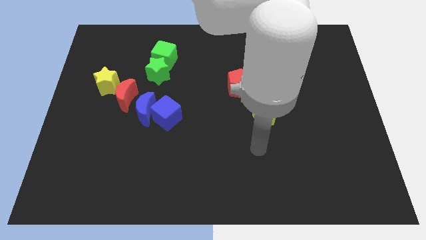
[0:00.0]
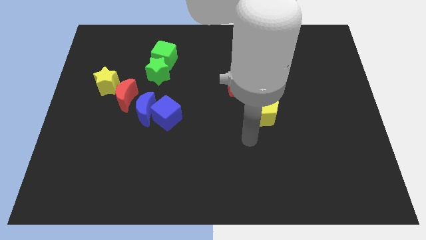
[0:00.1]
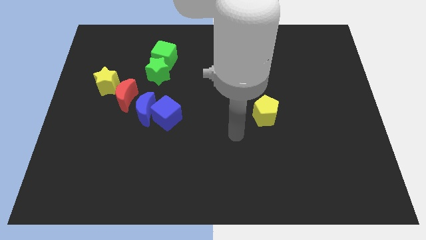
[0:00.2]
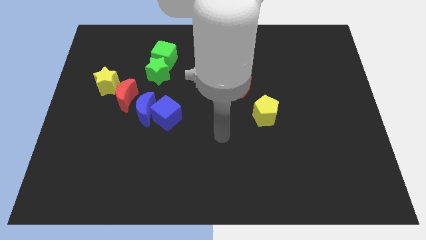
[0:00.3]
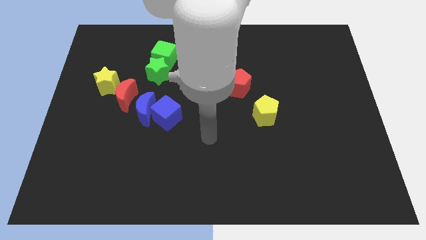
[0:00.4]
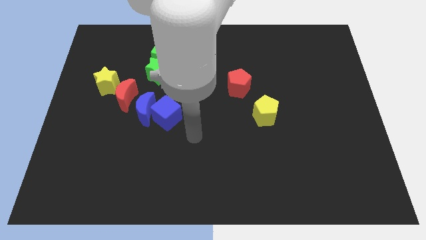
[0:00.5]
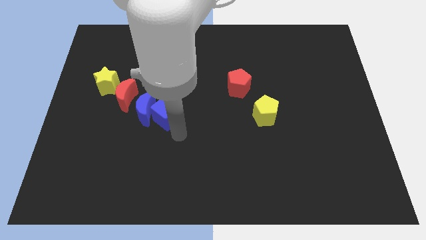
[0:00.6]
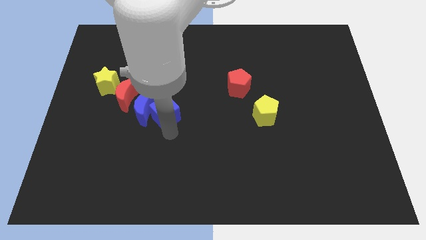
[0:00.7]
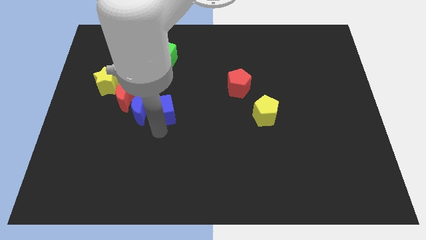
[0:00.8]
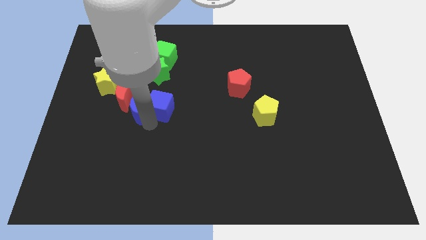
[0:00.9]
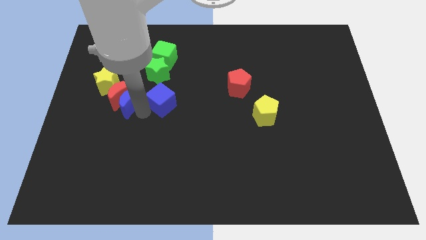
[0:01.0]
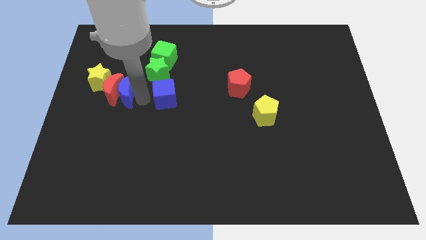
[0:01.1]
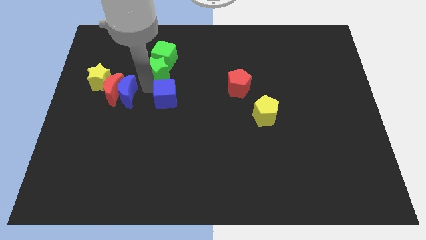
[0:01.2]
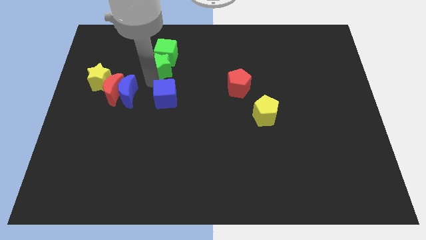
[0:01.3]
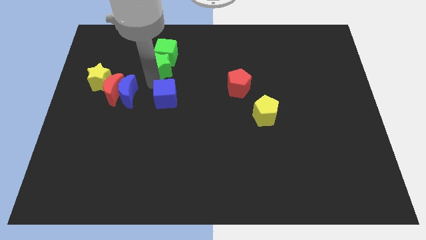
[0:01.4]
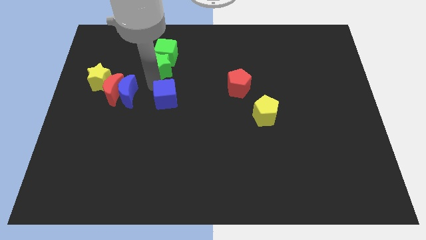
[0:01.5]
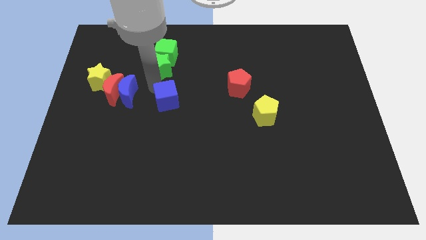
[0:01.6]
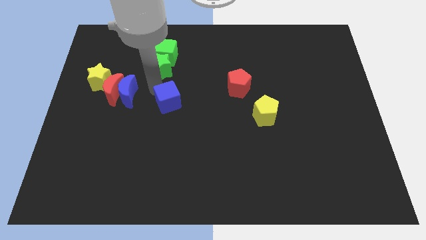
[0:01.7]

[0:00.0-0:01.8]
pull the blue cube apart from the blue moon

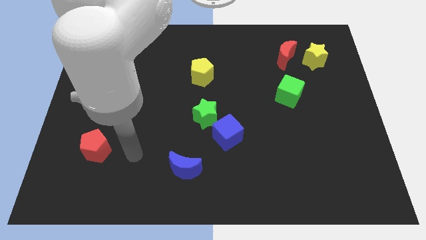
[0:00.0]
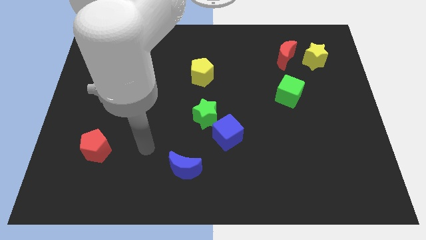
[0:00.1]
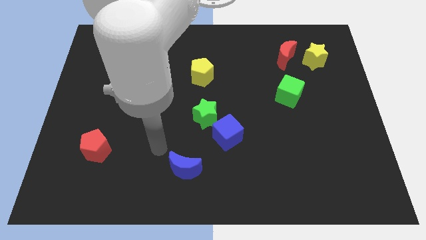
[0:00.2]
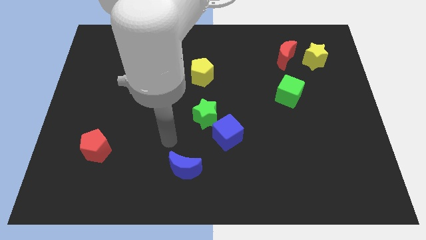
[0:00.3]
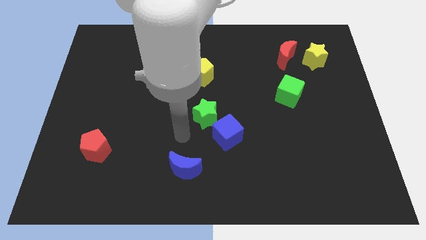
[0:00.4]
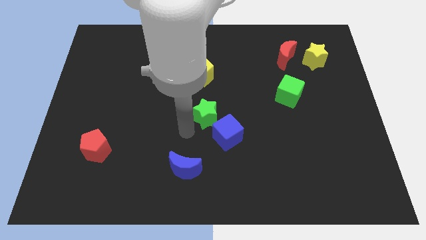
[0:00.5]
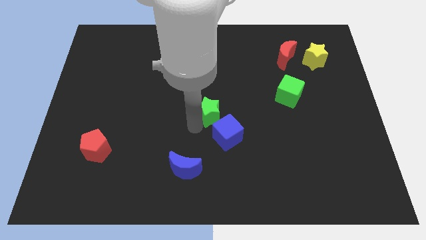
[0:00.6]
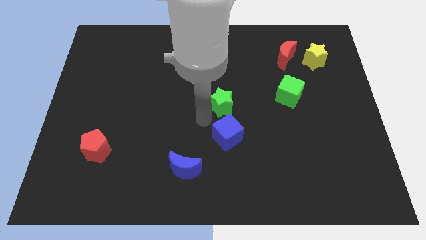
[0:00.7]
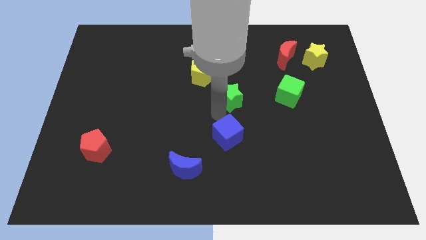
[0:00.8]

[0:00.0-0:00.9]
pull the blue cube apart from the green star

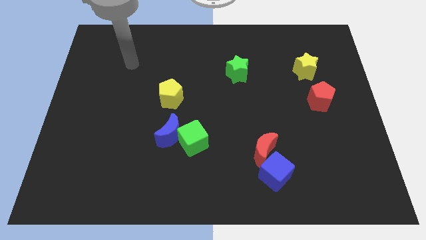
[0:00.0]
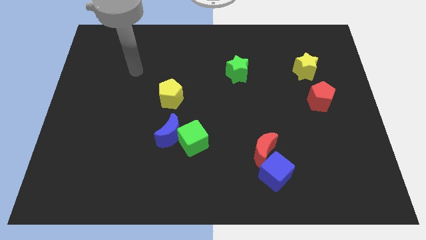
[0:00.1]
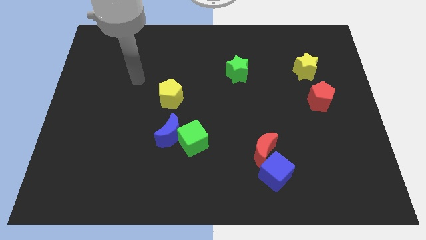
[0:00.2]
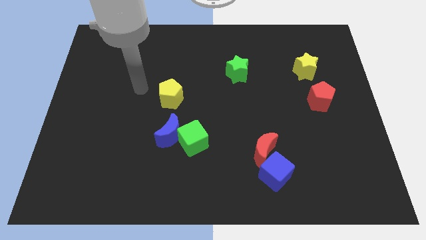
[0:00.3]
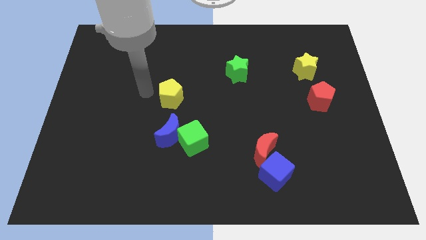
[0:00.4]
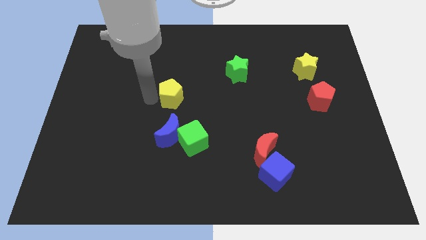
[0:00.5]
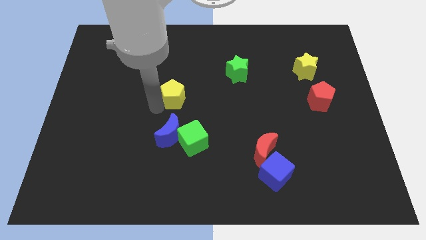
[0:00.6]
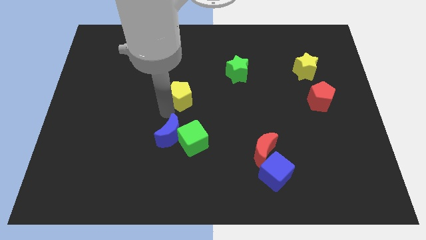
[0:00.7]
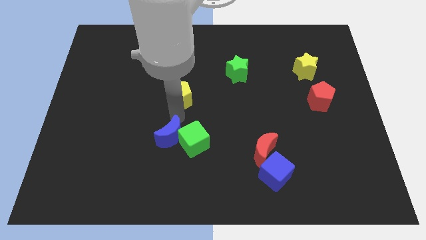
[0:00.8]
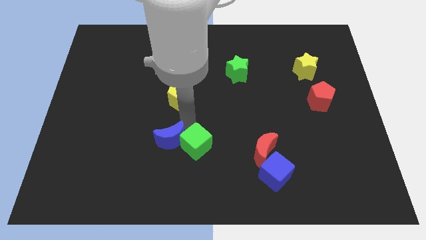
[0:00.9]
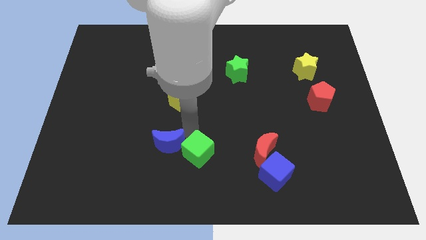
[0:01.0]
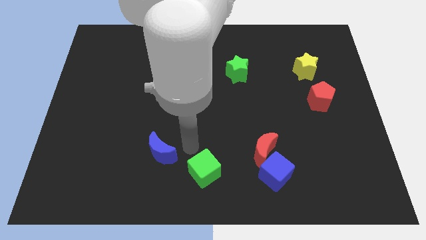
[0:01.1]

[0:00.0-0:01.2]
pull the blue moon apart from the green cube

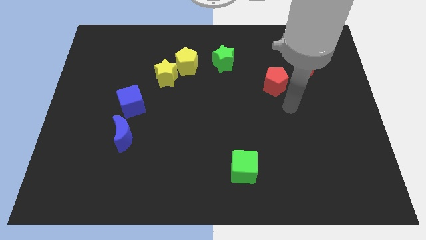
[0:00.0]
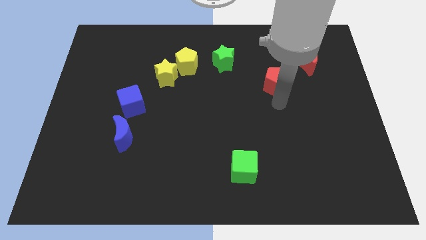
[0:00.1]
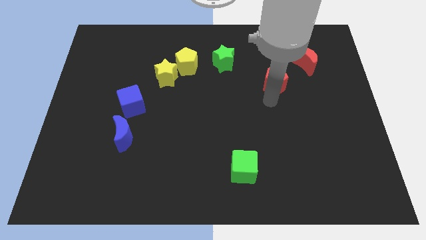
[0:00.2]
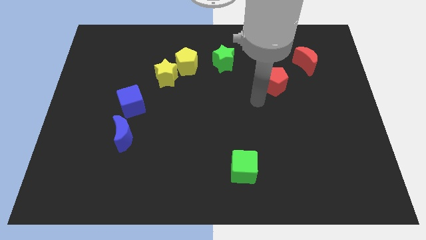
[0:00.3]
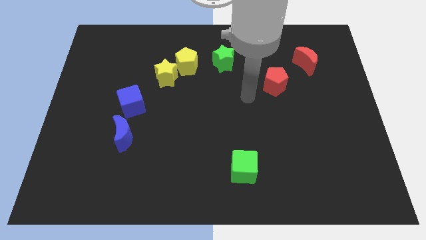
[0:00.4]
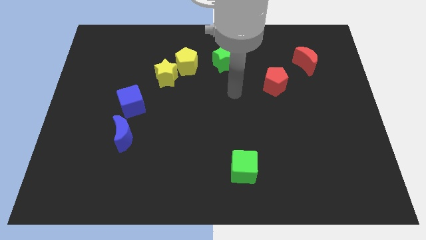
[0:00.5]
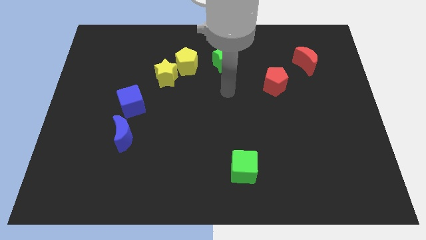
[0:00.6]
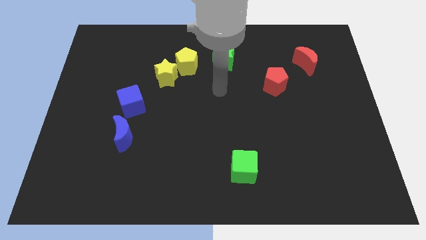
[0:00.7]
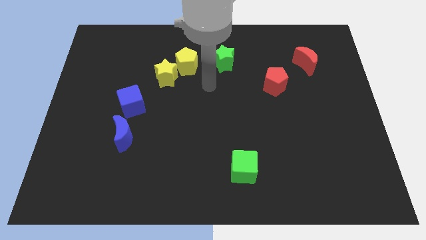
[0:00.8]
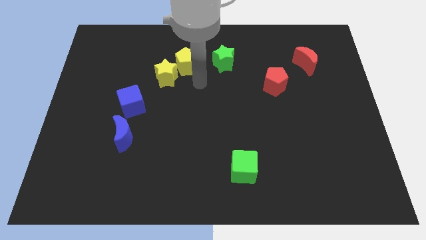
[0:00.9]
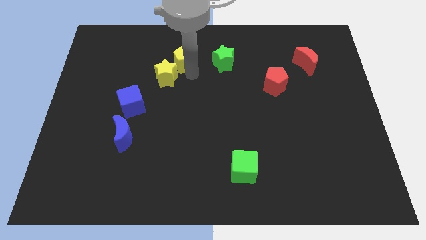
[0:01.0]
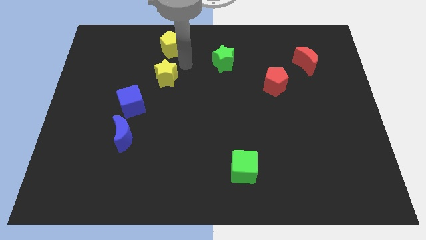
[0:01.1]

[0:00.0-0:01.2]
pull the yellow star apart from the yellow pentagon

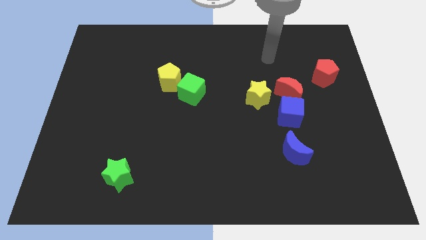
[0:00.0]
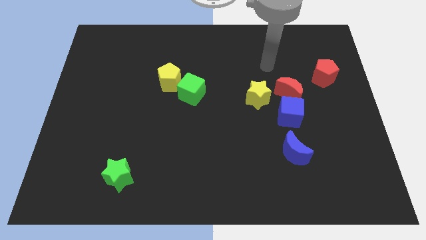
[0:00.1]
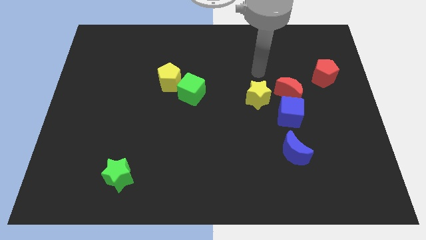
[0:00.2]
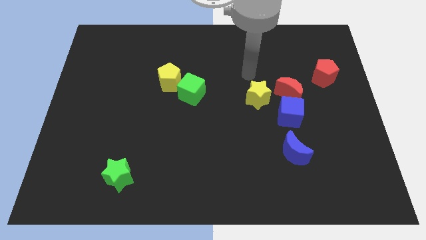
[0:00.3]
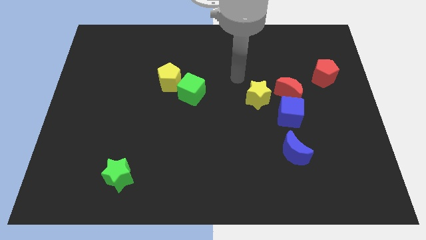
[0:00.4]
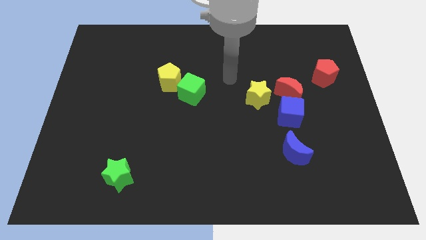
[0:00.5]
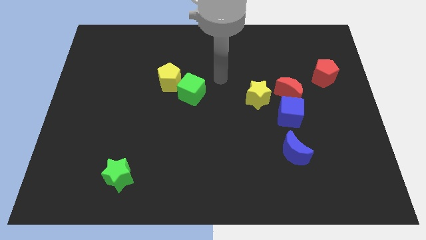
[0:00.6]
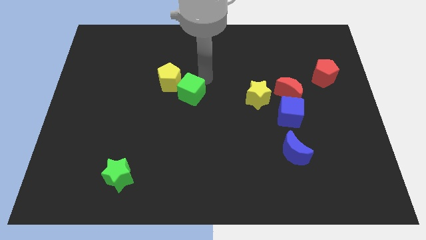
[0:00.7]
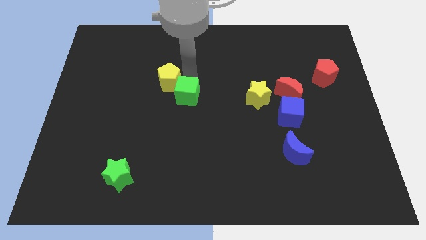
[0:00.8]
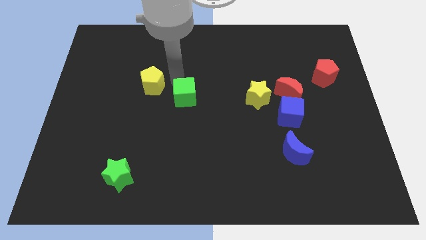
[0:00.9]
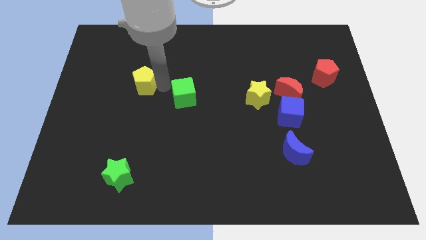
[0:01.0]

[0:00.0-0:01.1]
separate the green cube from the yellow pentagon

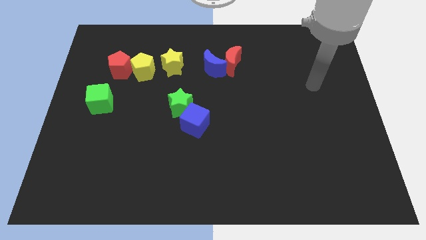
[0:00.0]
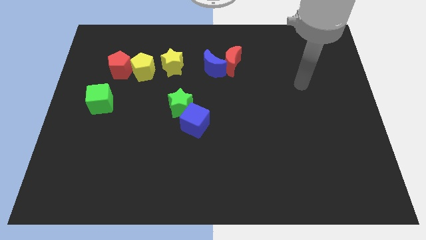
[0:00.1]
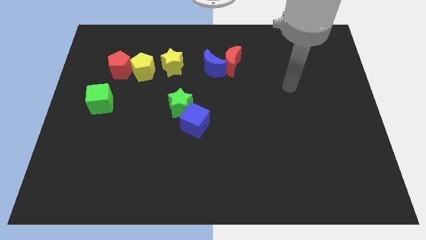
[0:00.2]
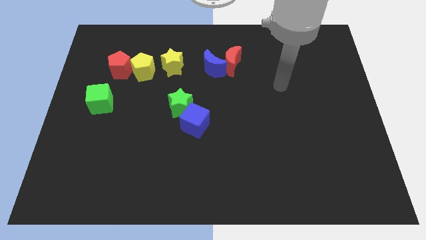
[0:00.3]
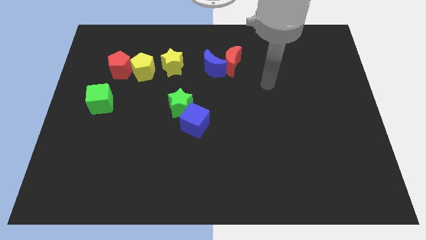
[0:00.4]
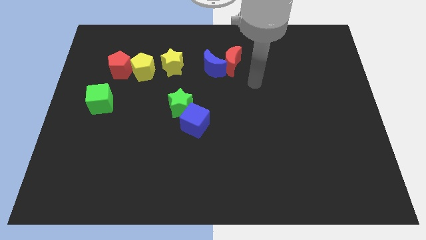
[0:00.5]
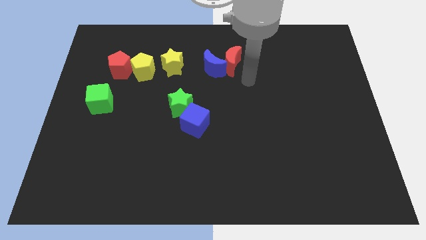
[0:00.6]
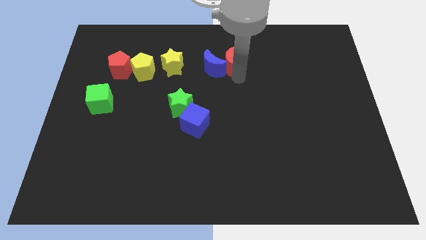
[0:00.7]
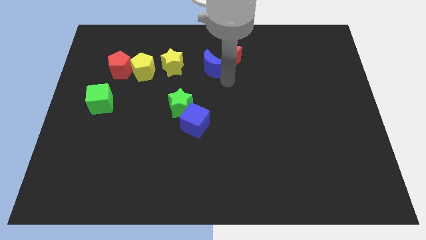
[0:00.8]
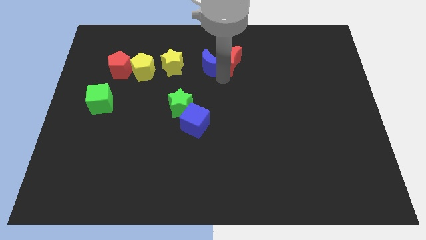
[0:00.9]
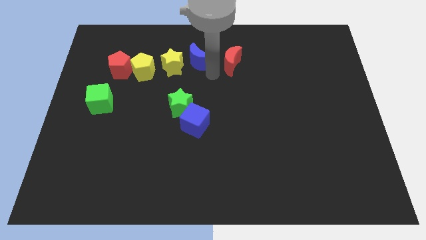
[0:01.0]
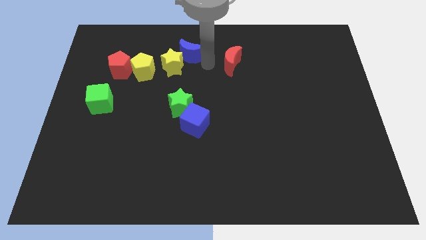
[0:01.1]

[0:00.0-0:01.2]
move the red moon away from the blue moon

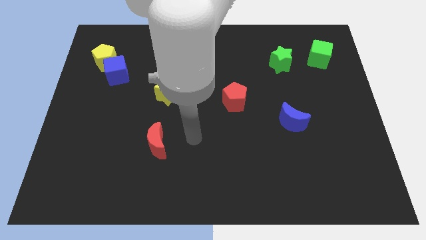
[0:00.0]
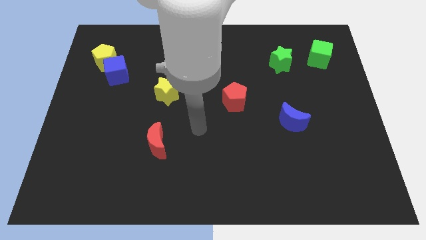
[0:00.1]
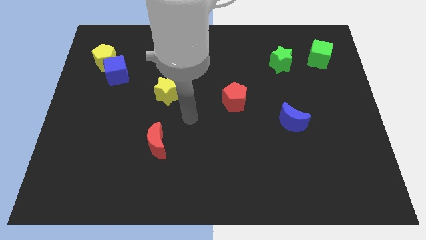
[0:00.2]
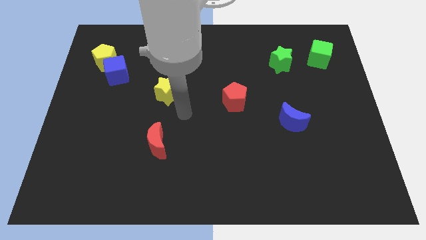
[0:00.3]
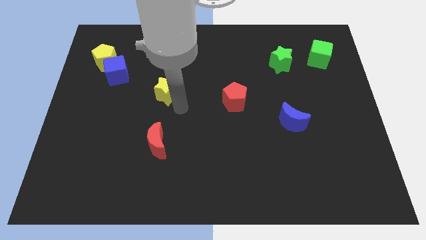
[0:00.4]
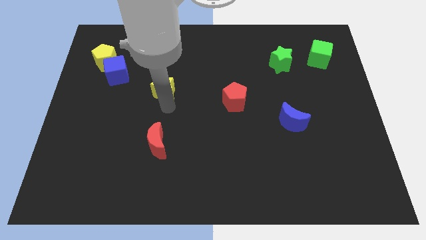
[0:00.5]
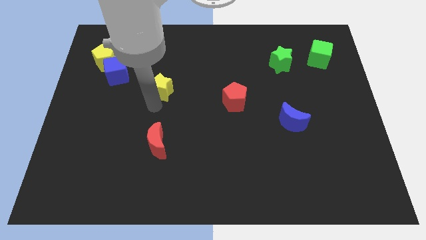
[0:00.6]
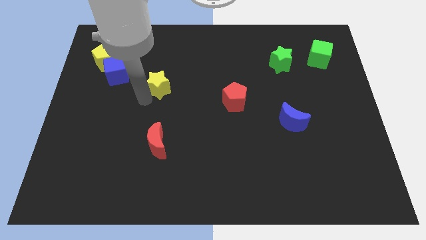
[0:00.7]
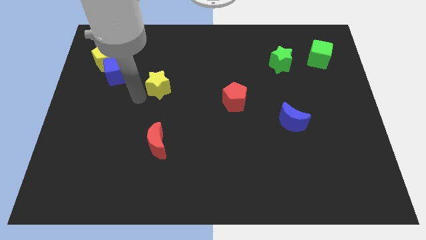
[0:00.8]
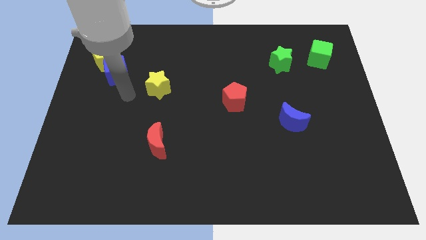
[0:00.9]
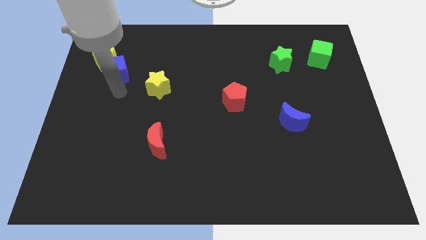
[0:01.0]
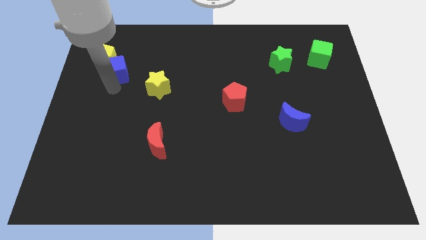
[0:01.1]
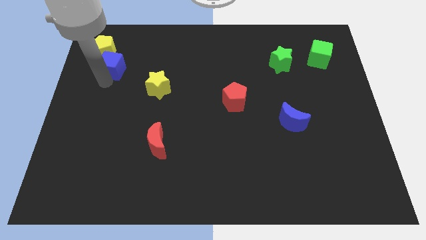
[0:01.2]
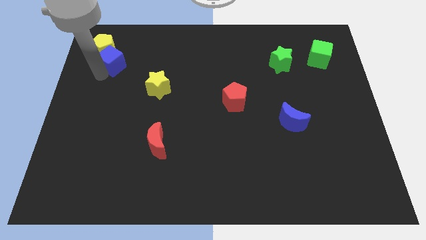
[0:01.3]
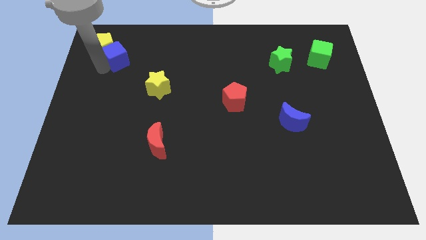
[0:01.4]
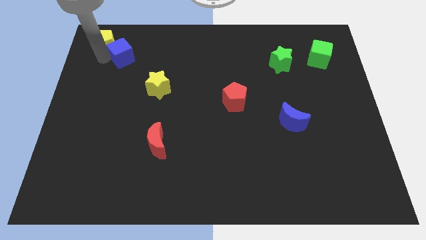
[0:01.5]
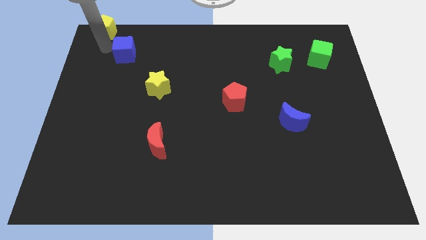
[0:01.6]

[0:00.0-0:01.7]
separate the blue cube from the yellow pentagon

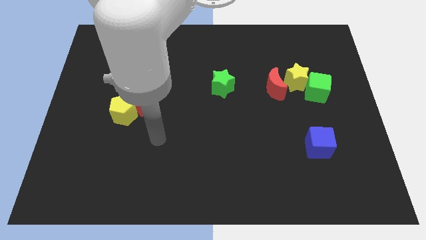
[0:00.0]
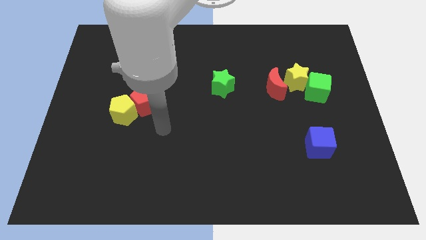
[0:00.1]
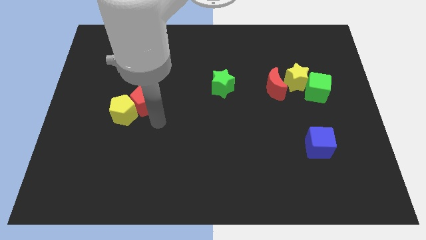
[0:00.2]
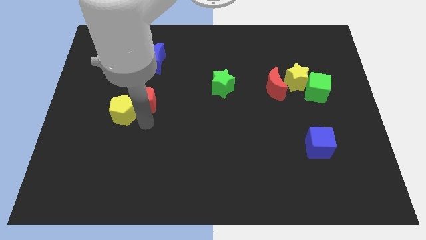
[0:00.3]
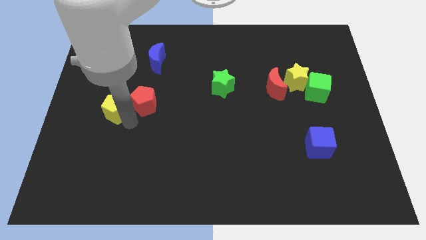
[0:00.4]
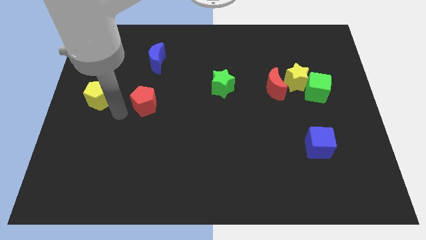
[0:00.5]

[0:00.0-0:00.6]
move the red pentagon away from the yellow pentagon
